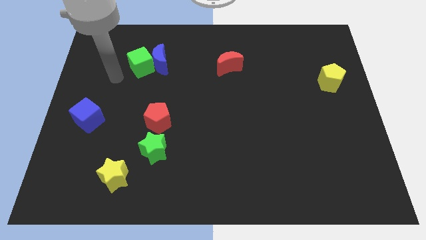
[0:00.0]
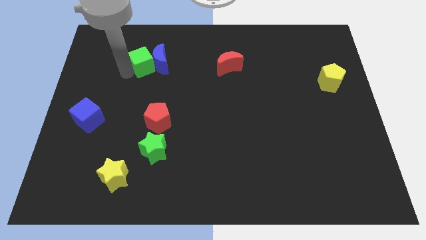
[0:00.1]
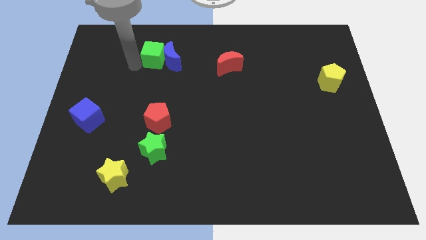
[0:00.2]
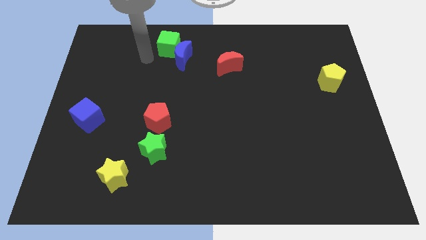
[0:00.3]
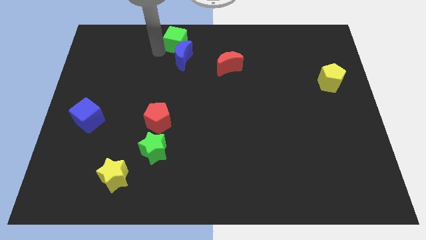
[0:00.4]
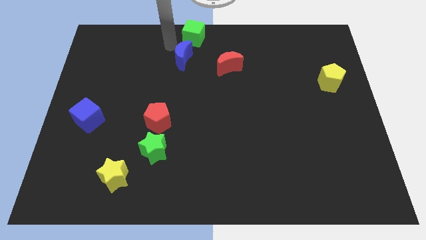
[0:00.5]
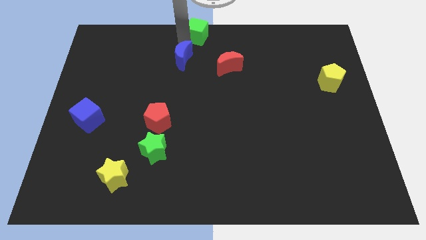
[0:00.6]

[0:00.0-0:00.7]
move the blue moon away from the green cube

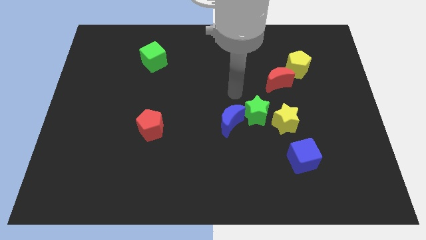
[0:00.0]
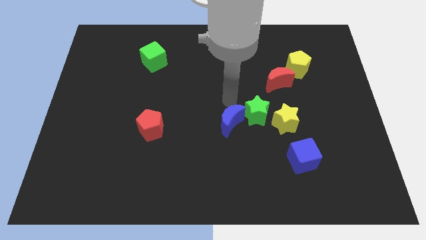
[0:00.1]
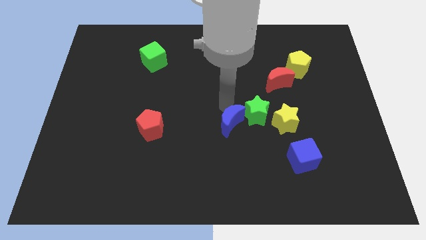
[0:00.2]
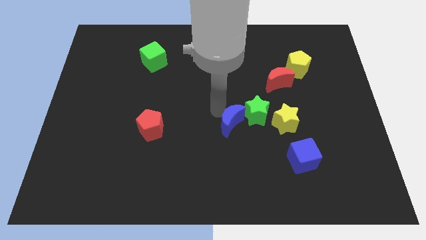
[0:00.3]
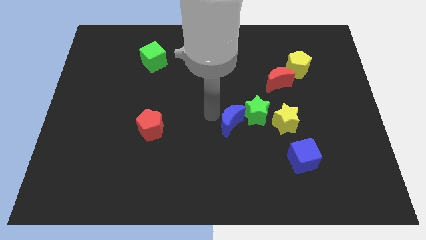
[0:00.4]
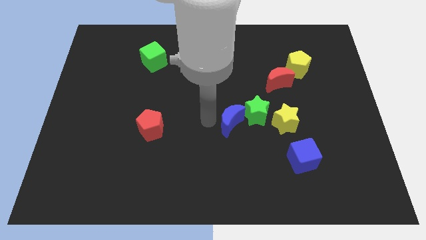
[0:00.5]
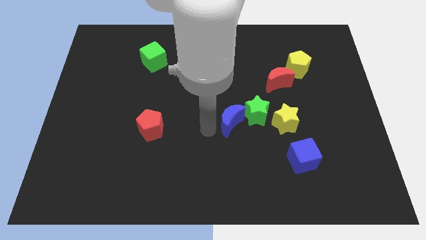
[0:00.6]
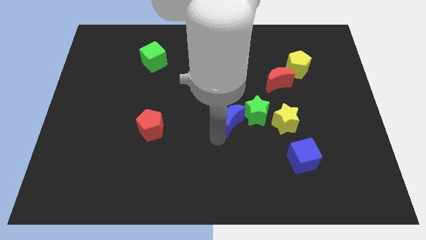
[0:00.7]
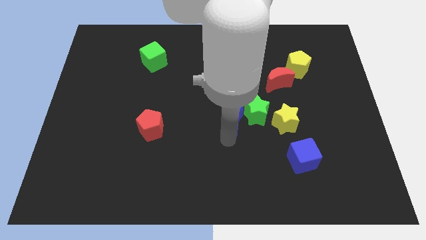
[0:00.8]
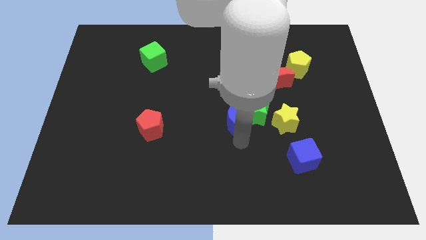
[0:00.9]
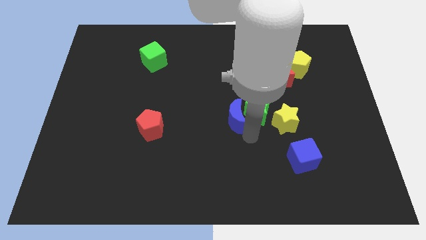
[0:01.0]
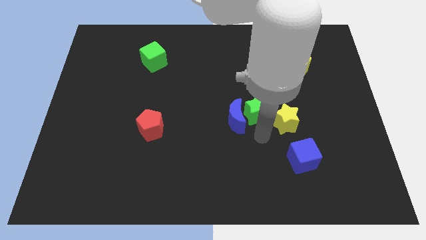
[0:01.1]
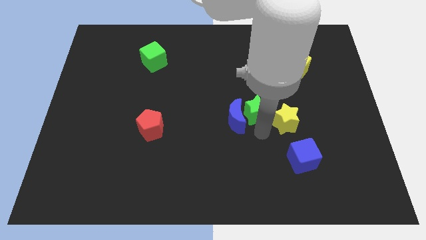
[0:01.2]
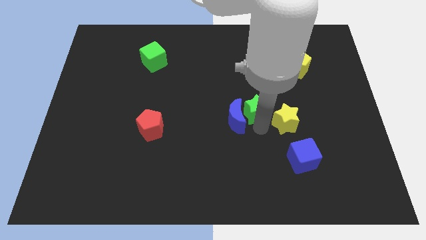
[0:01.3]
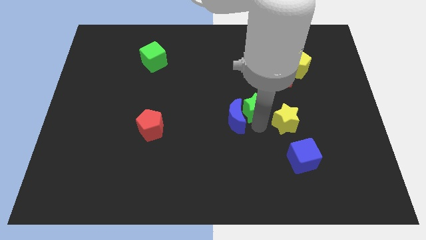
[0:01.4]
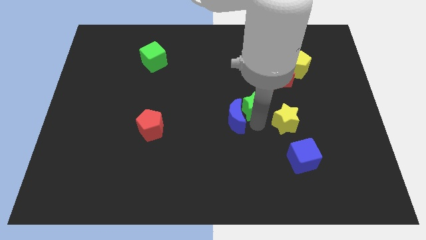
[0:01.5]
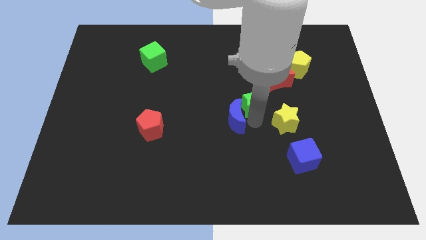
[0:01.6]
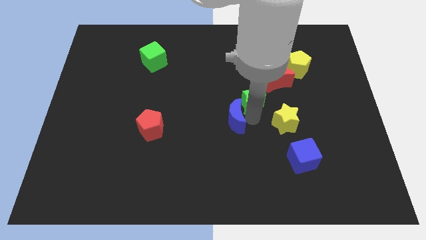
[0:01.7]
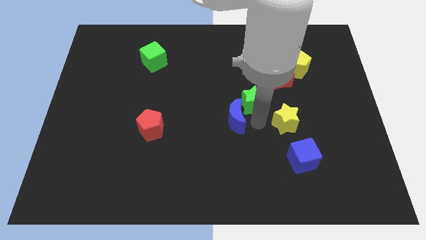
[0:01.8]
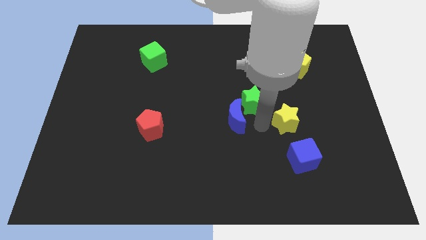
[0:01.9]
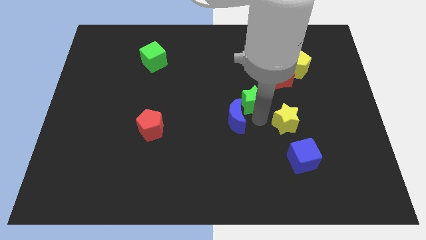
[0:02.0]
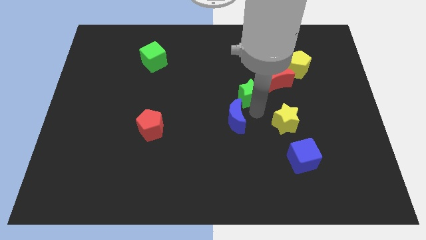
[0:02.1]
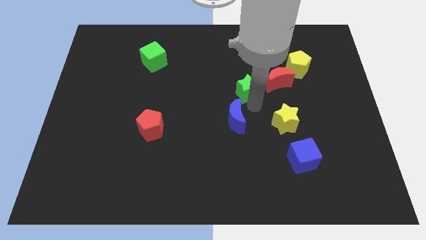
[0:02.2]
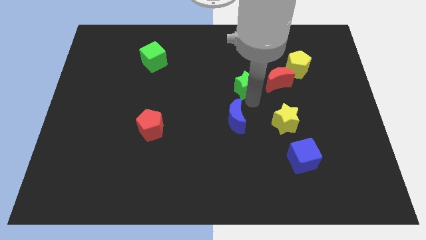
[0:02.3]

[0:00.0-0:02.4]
separate the green star from the yellow star and blue moon

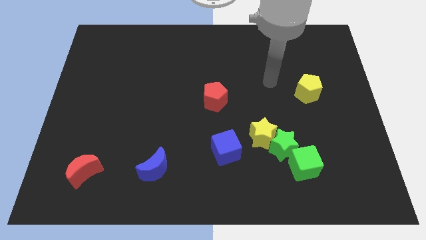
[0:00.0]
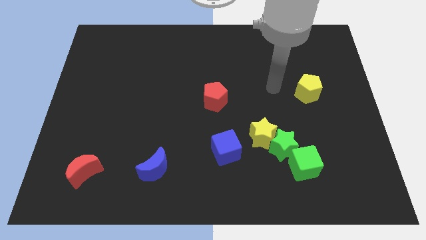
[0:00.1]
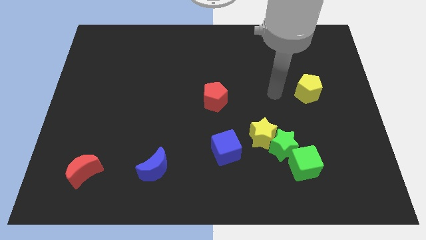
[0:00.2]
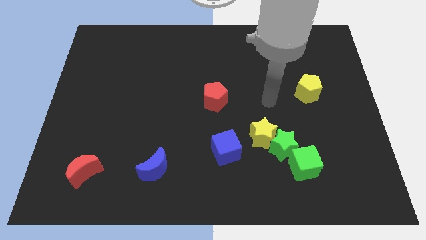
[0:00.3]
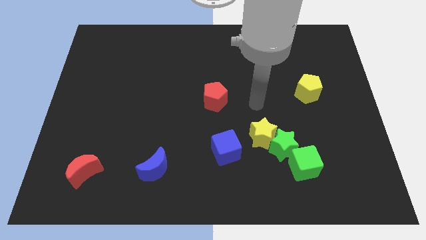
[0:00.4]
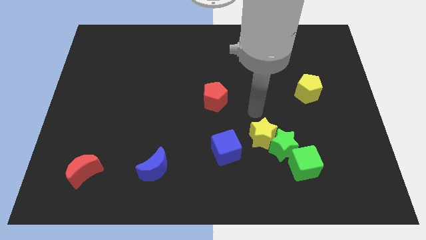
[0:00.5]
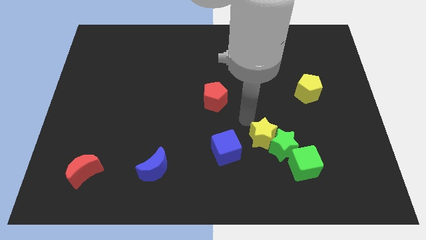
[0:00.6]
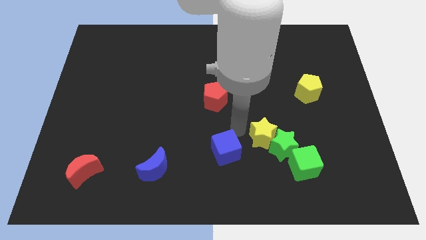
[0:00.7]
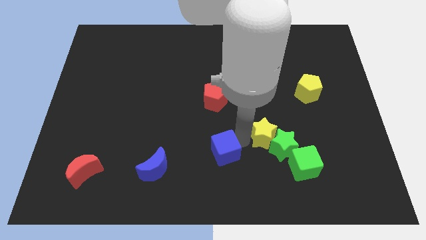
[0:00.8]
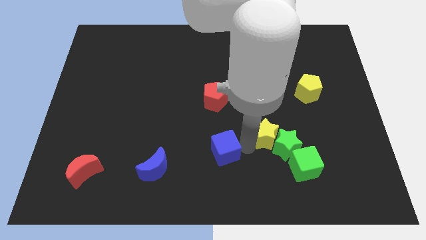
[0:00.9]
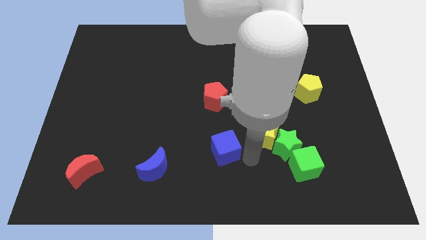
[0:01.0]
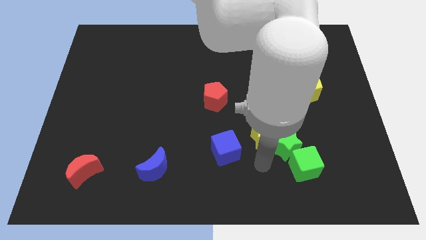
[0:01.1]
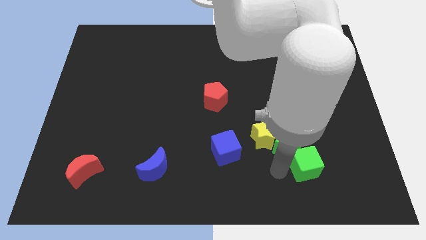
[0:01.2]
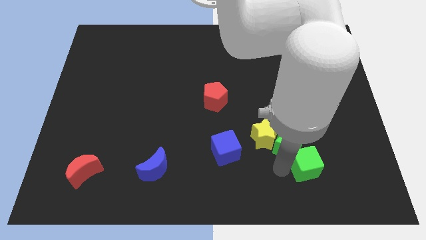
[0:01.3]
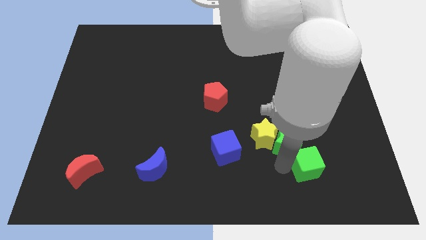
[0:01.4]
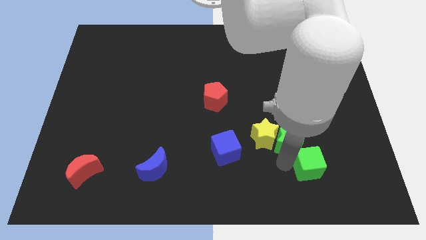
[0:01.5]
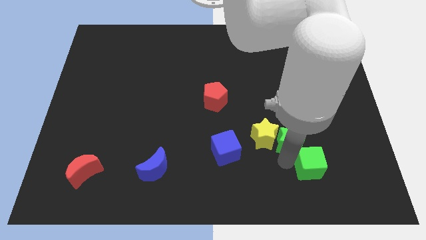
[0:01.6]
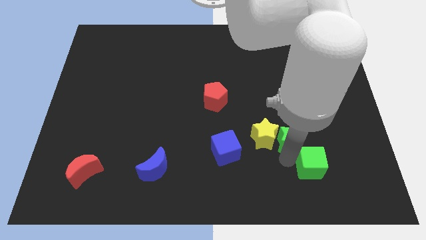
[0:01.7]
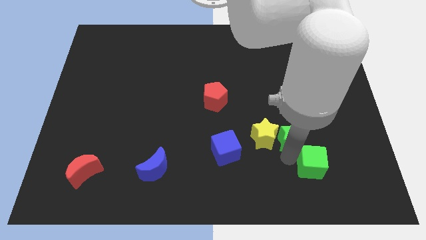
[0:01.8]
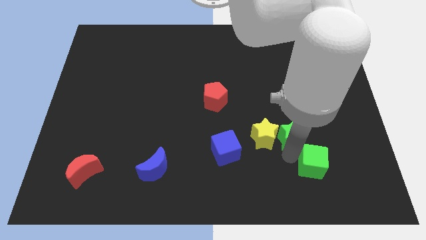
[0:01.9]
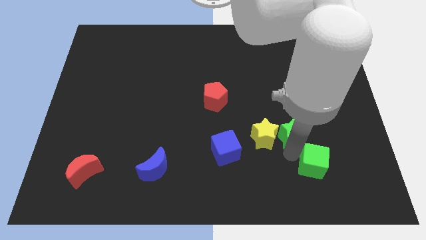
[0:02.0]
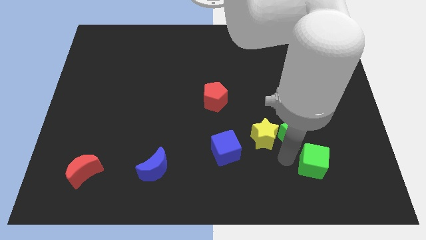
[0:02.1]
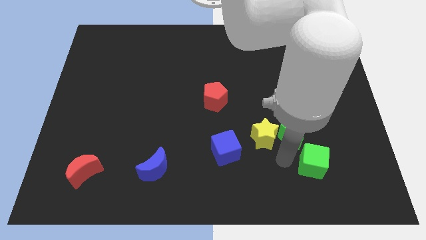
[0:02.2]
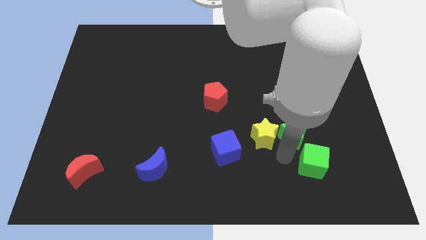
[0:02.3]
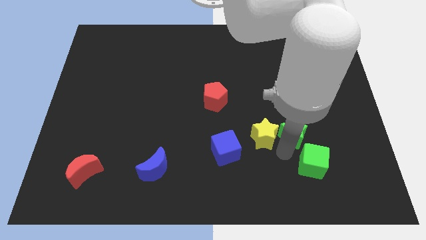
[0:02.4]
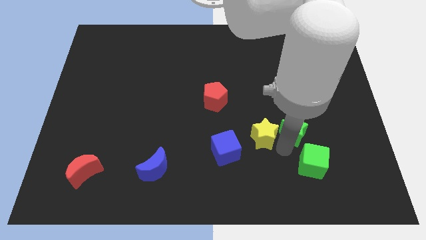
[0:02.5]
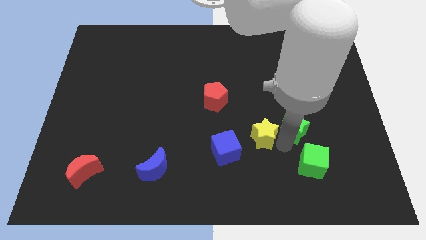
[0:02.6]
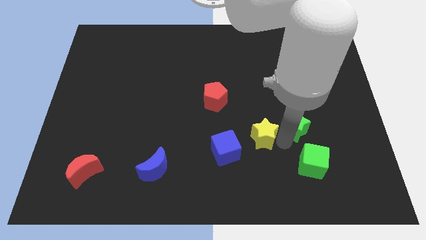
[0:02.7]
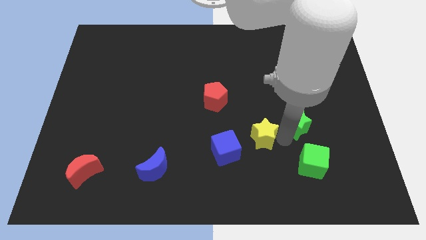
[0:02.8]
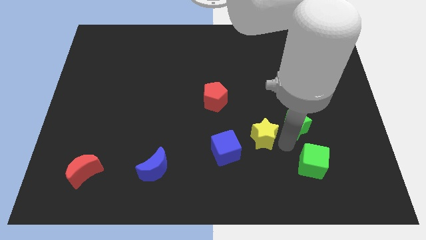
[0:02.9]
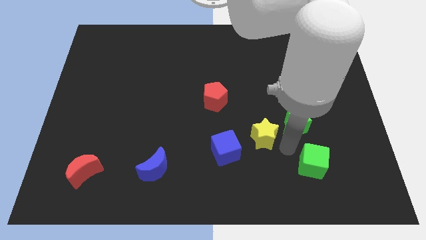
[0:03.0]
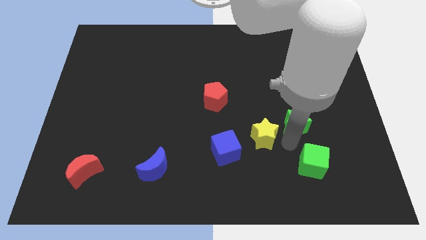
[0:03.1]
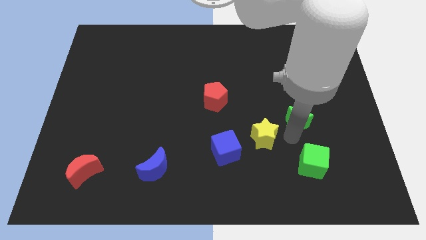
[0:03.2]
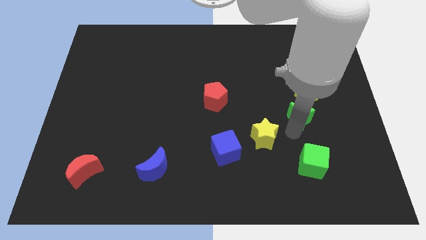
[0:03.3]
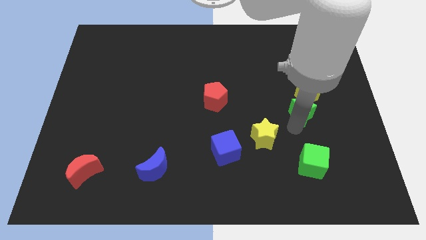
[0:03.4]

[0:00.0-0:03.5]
separate the green star from the yellow star and green cube

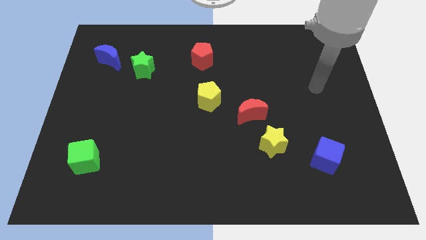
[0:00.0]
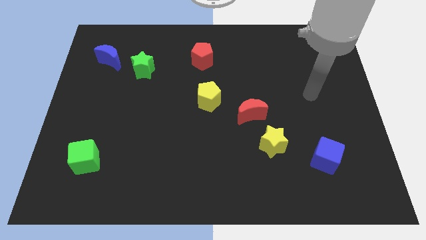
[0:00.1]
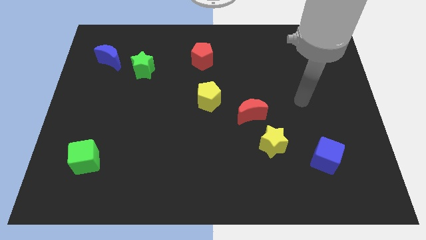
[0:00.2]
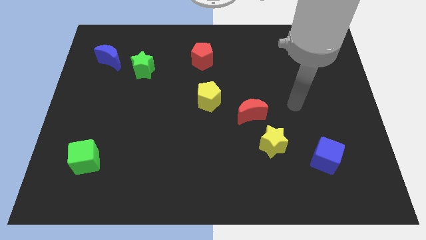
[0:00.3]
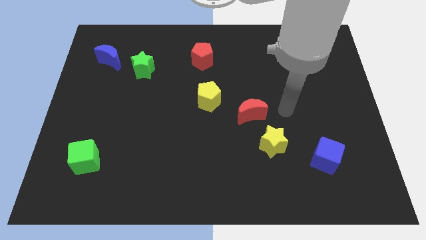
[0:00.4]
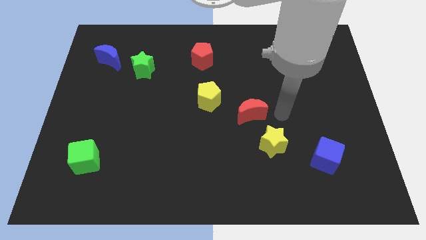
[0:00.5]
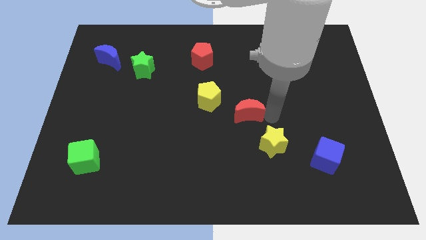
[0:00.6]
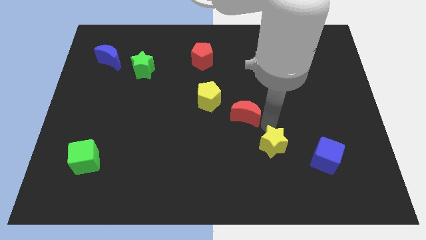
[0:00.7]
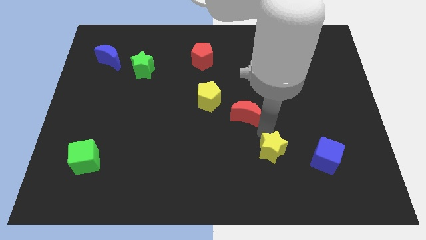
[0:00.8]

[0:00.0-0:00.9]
separate the red moon from the yellow star

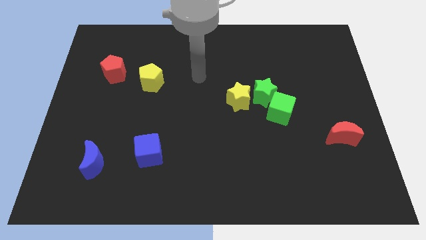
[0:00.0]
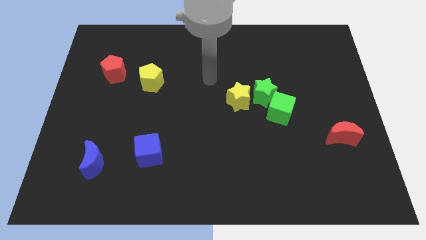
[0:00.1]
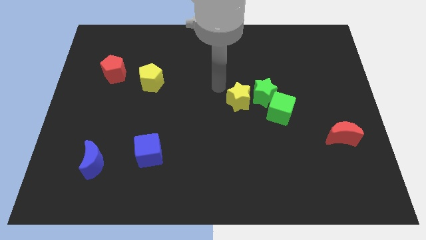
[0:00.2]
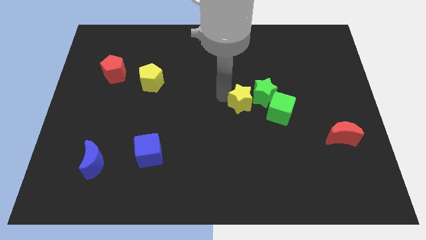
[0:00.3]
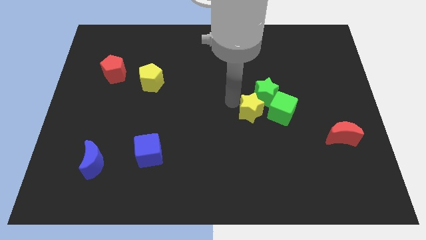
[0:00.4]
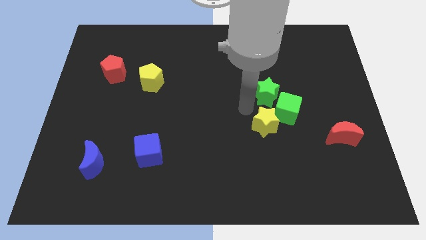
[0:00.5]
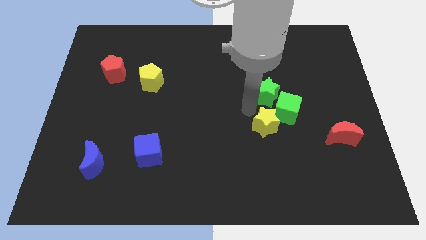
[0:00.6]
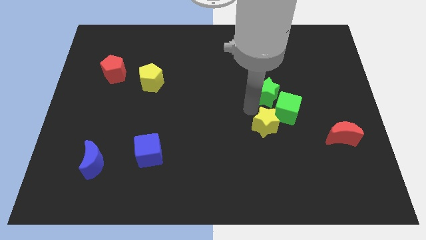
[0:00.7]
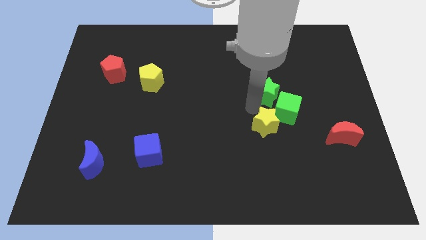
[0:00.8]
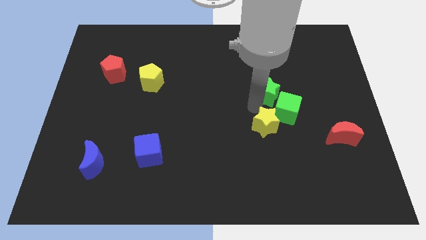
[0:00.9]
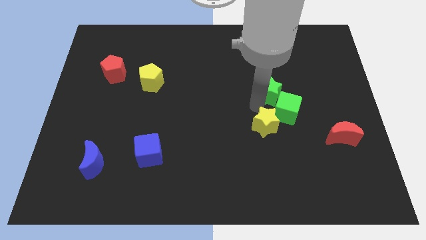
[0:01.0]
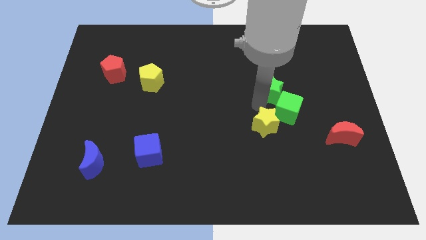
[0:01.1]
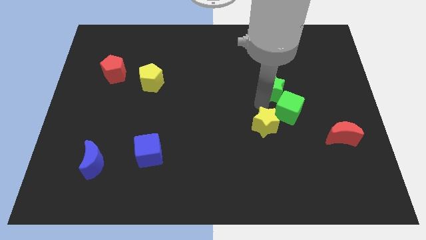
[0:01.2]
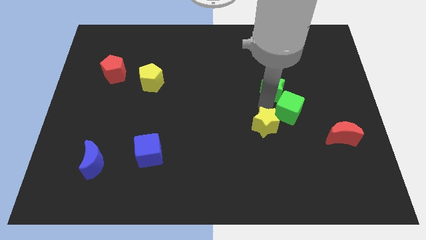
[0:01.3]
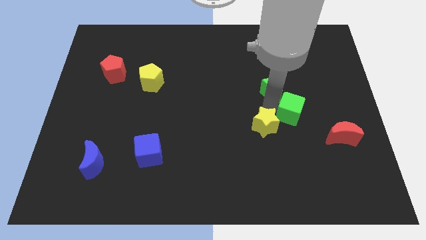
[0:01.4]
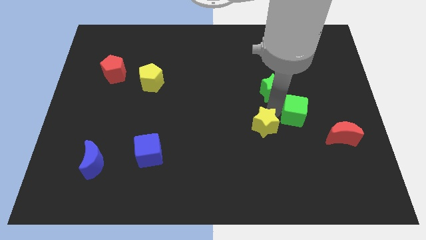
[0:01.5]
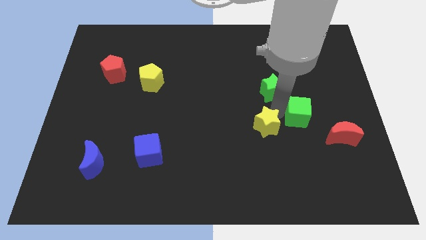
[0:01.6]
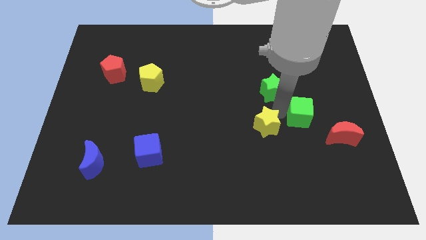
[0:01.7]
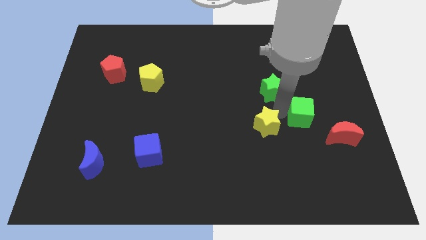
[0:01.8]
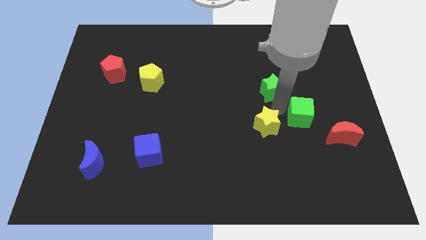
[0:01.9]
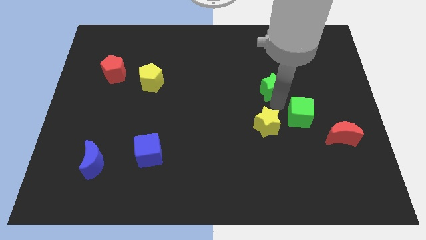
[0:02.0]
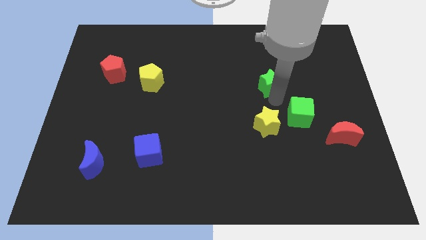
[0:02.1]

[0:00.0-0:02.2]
pull the green star apart from the green cube and yellow star
